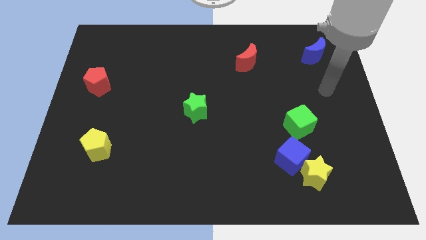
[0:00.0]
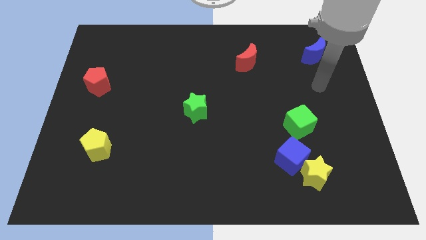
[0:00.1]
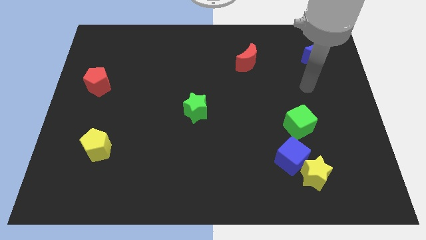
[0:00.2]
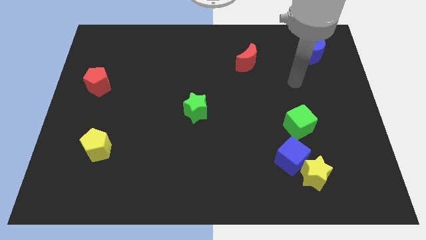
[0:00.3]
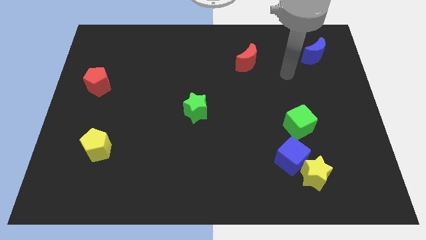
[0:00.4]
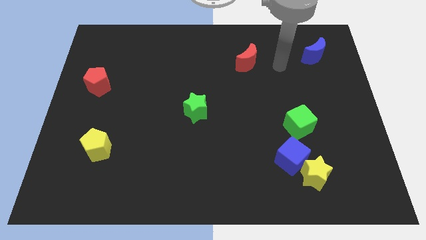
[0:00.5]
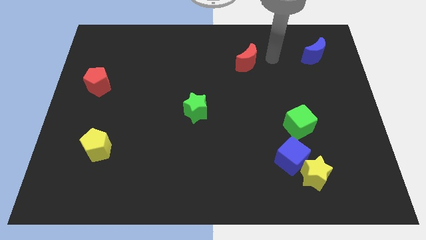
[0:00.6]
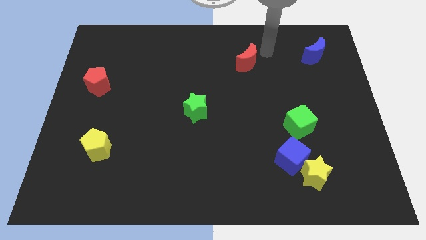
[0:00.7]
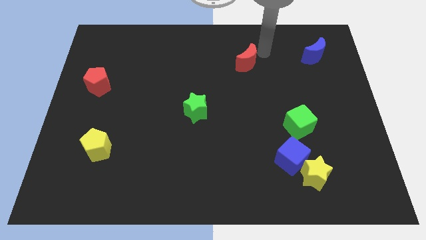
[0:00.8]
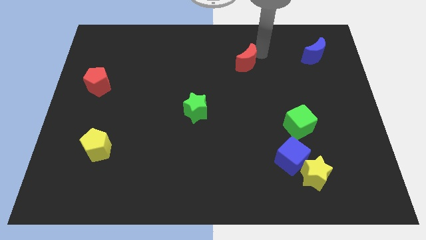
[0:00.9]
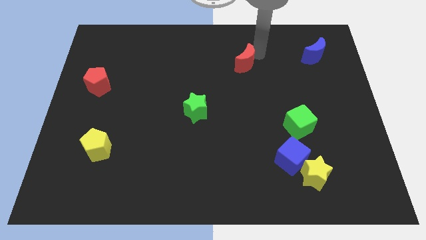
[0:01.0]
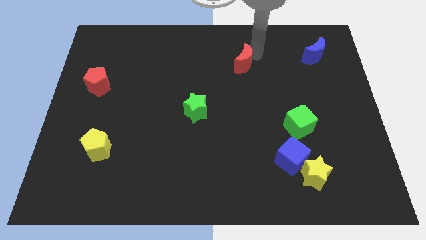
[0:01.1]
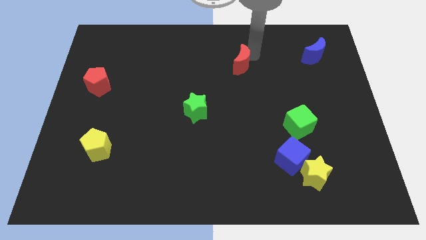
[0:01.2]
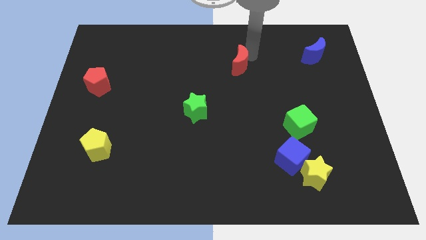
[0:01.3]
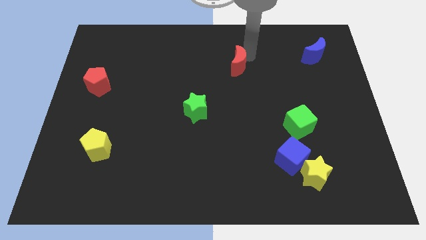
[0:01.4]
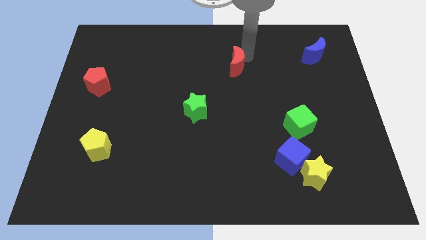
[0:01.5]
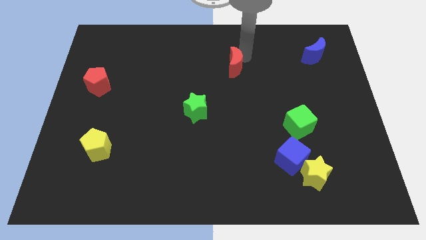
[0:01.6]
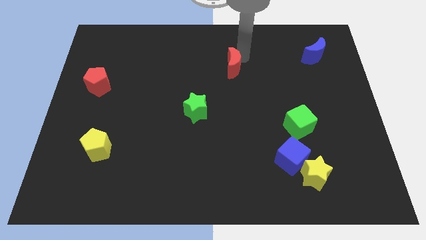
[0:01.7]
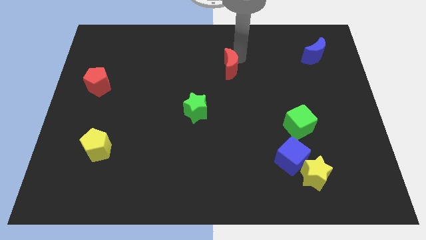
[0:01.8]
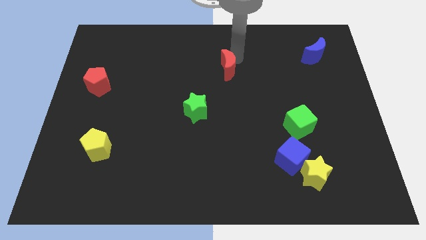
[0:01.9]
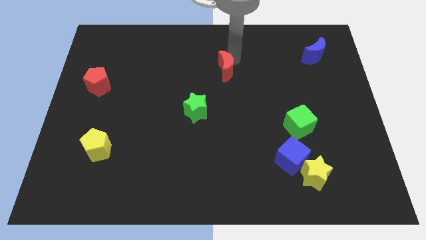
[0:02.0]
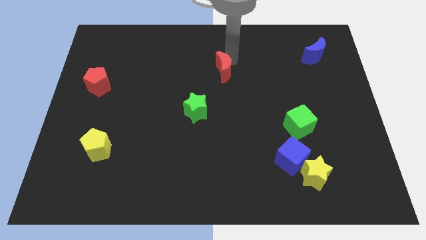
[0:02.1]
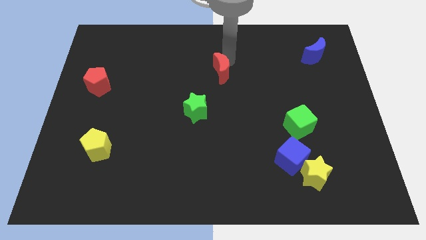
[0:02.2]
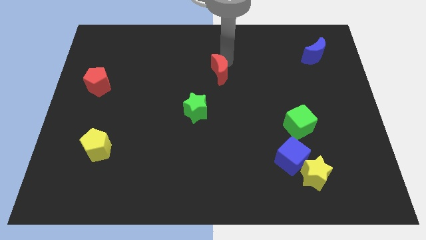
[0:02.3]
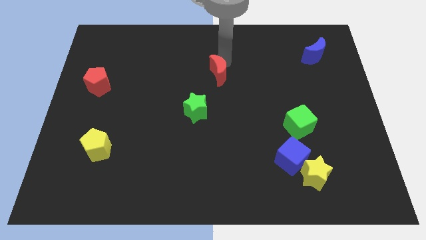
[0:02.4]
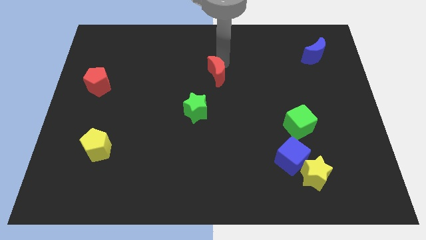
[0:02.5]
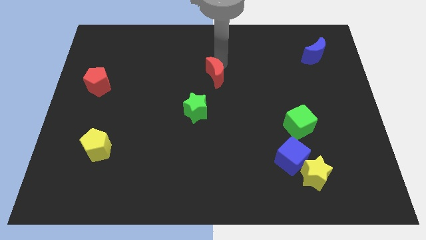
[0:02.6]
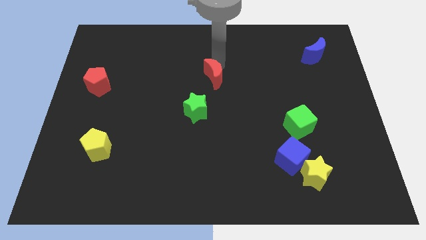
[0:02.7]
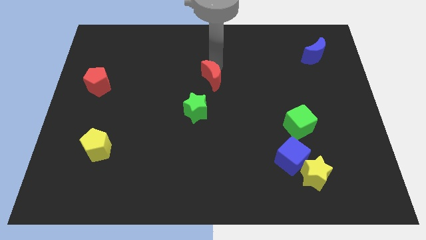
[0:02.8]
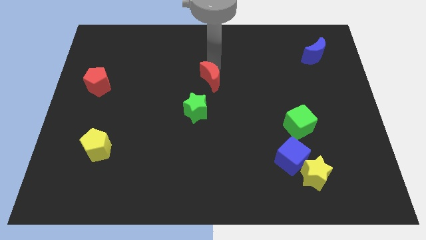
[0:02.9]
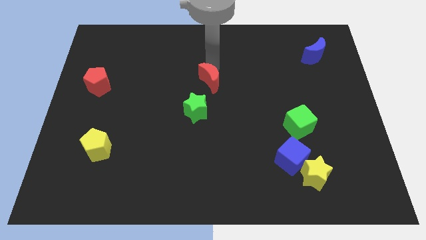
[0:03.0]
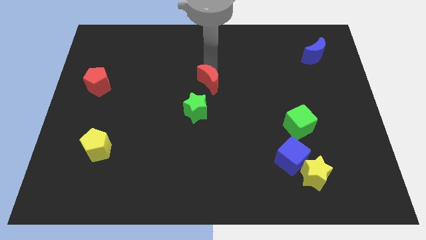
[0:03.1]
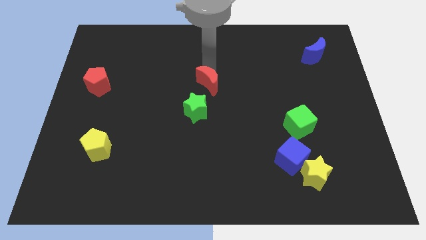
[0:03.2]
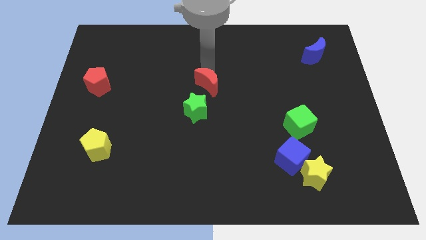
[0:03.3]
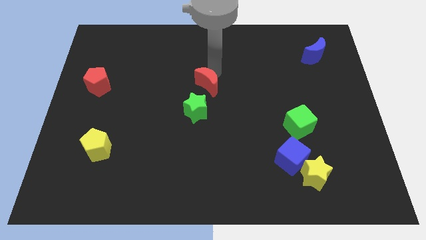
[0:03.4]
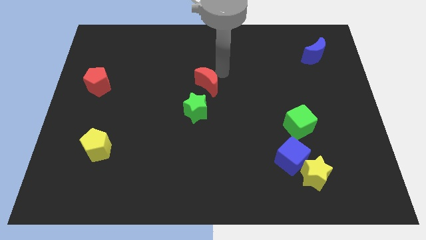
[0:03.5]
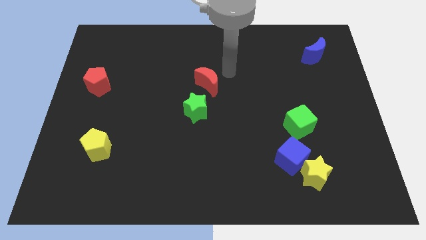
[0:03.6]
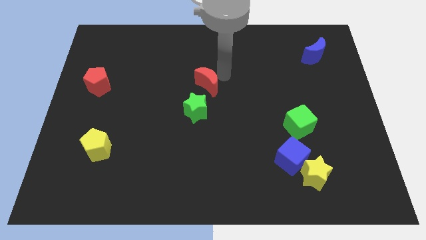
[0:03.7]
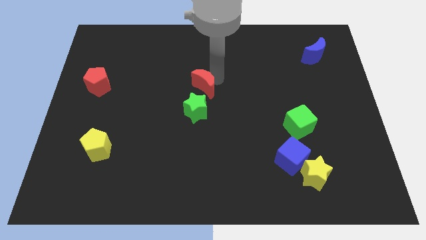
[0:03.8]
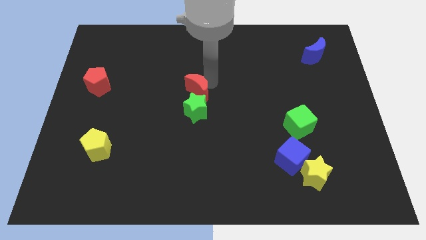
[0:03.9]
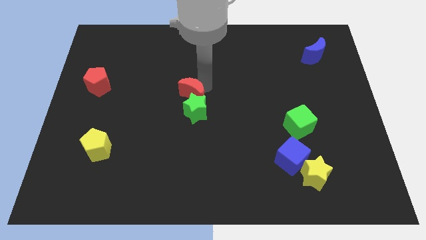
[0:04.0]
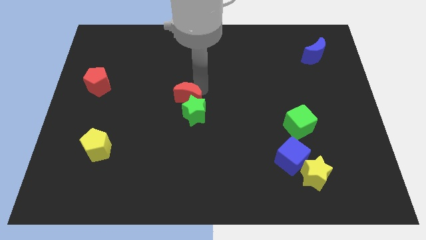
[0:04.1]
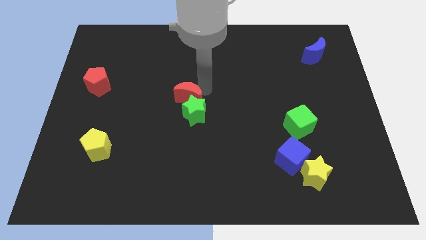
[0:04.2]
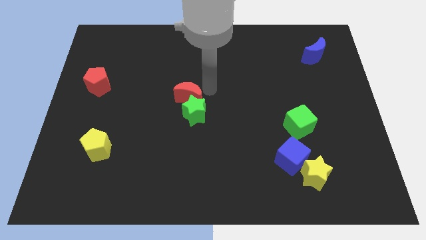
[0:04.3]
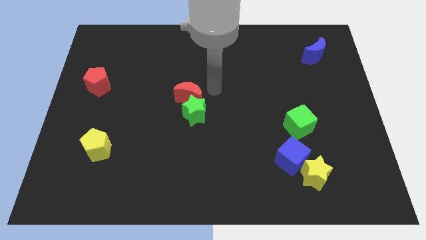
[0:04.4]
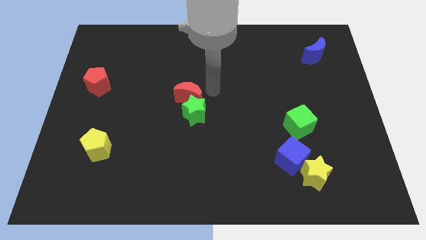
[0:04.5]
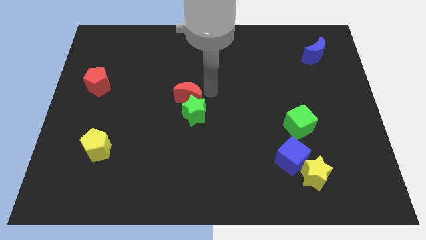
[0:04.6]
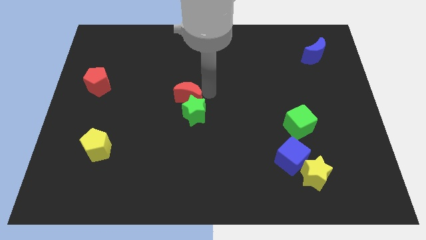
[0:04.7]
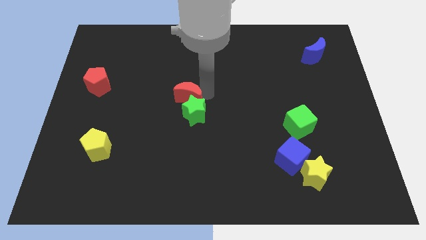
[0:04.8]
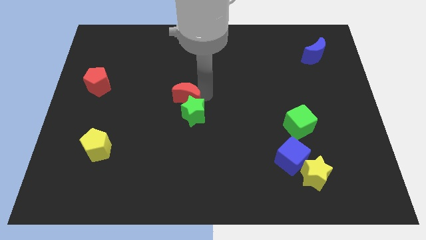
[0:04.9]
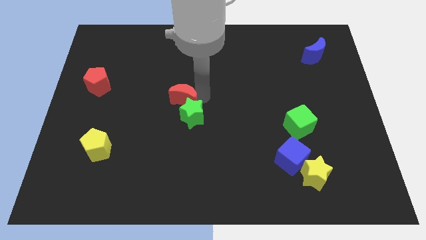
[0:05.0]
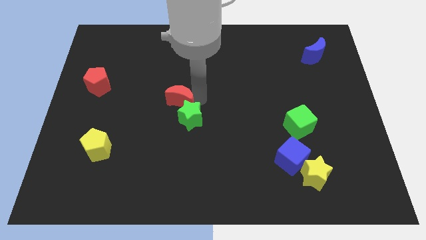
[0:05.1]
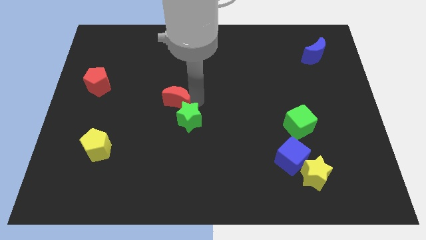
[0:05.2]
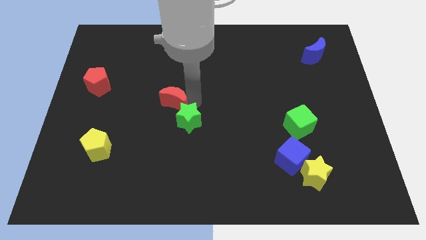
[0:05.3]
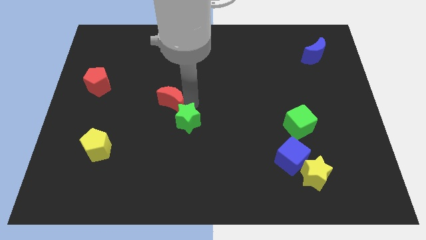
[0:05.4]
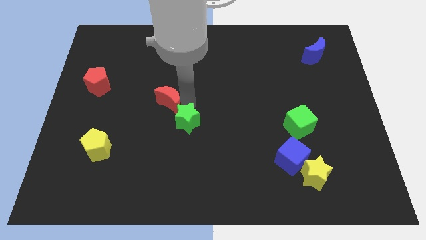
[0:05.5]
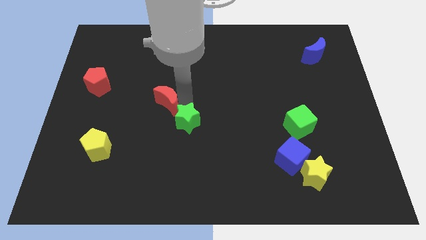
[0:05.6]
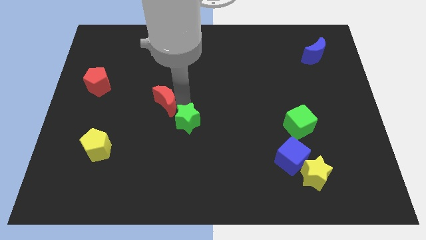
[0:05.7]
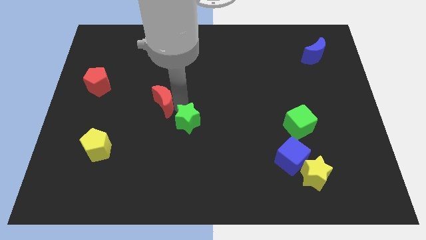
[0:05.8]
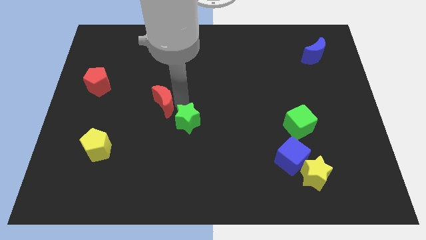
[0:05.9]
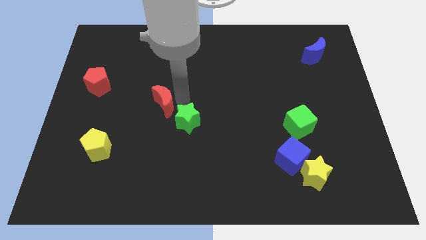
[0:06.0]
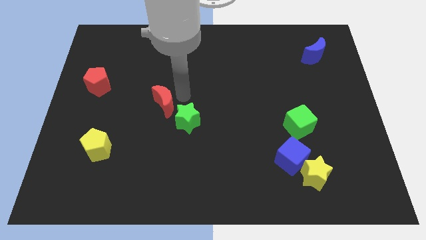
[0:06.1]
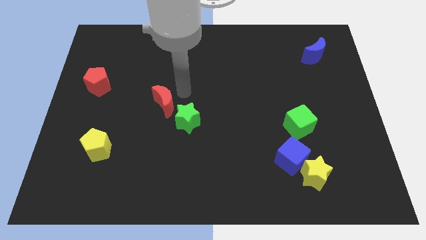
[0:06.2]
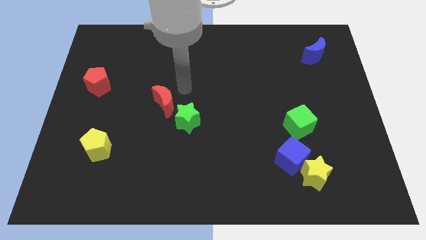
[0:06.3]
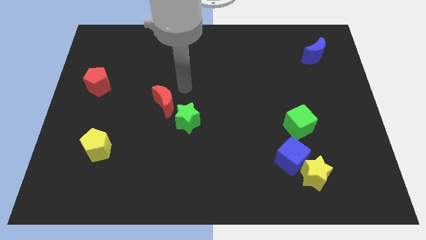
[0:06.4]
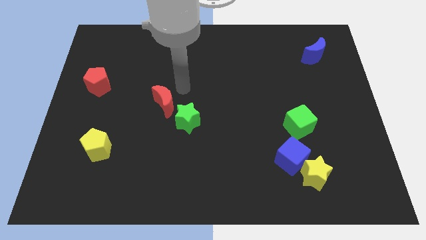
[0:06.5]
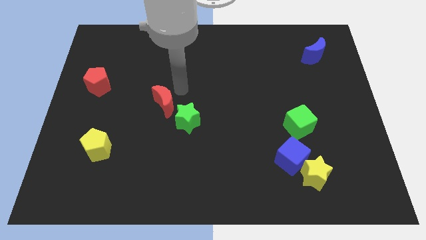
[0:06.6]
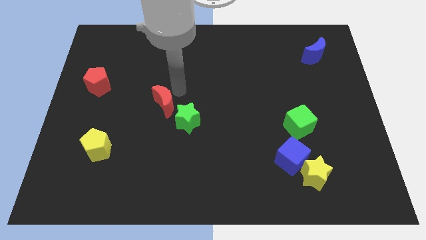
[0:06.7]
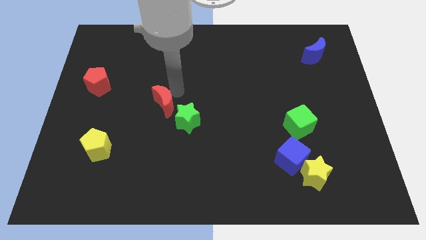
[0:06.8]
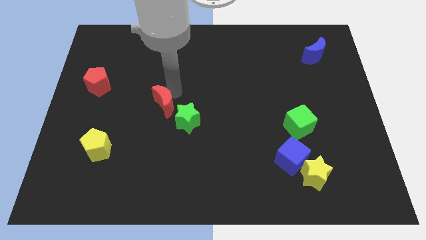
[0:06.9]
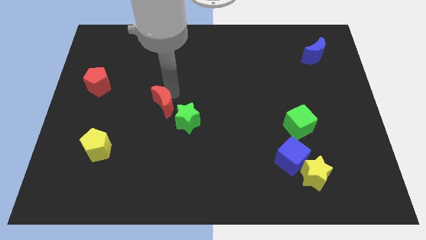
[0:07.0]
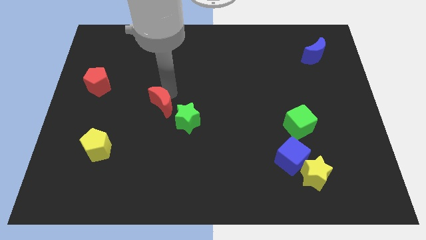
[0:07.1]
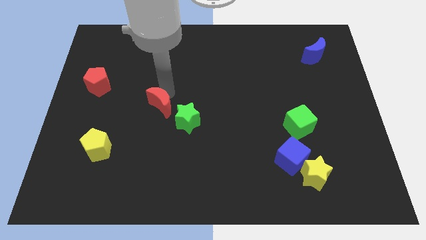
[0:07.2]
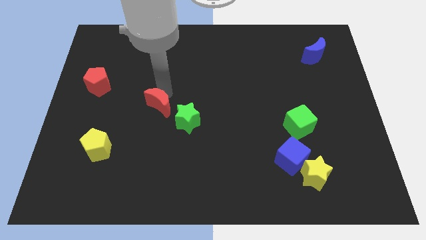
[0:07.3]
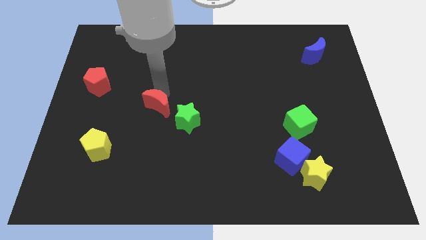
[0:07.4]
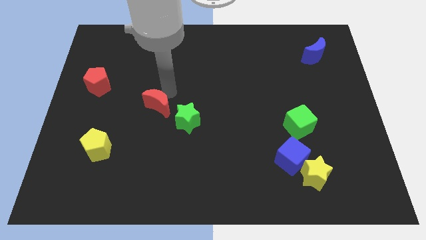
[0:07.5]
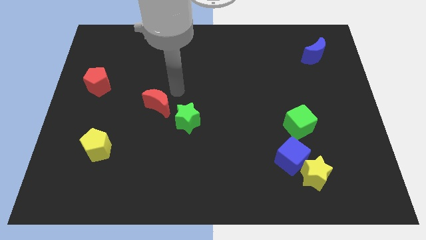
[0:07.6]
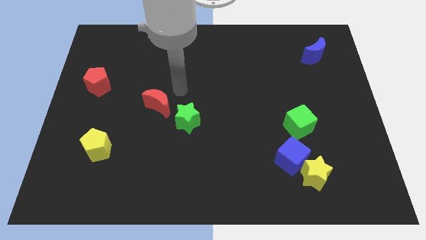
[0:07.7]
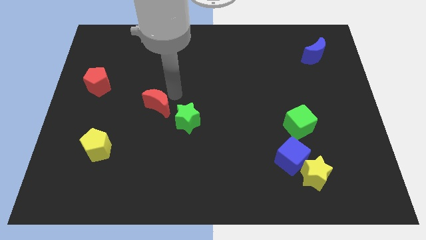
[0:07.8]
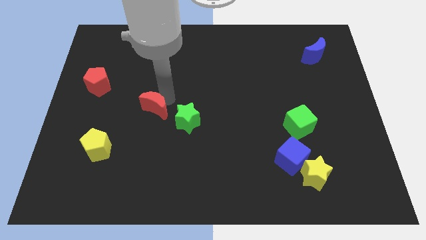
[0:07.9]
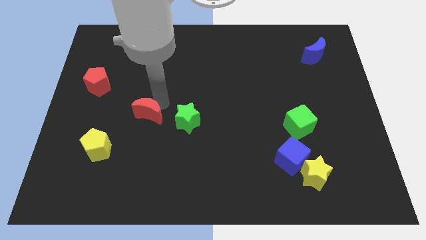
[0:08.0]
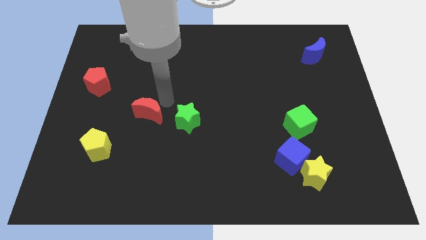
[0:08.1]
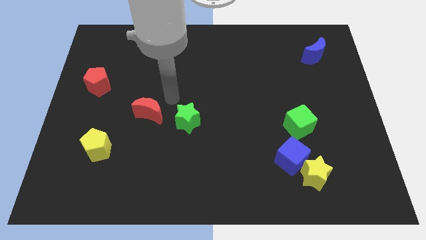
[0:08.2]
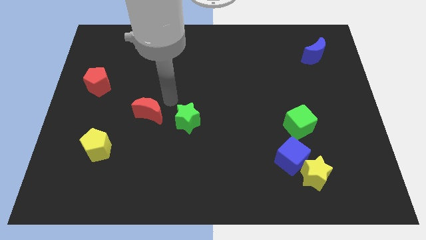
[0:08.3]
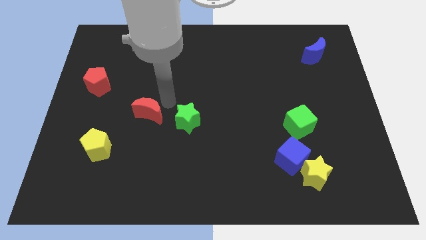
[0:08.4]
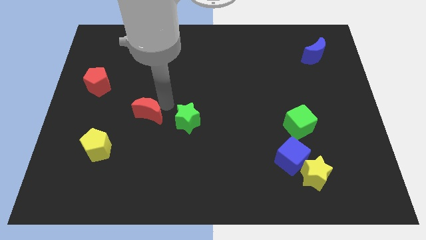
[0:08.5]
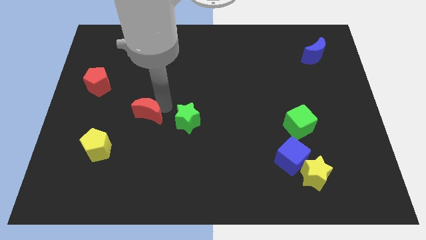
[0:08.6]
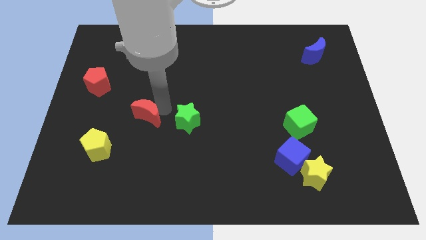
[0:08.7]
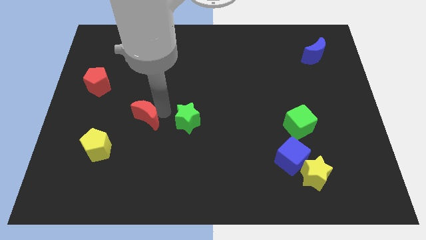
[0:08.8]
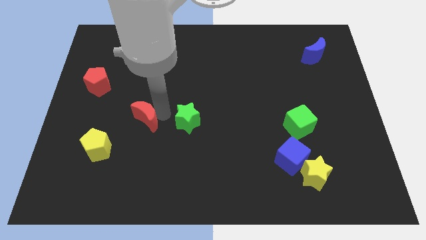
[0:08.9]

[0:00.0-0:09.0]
push the red moon diagonally up and to the right of the yellow pentagon
